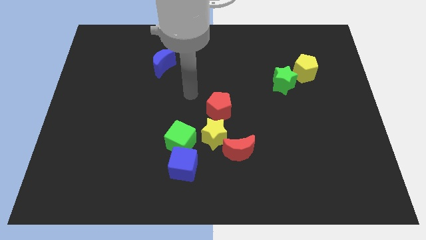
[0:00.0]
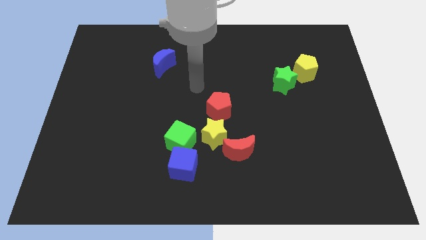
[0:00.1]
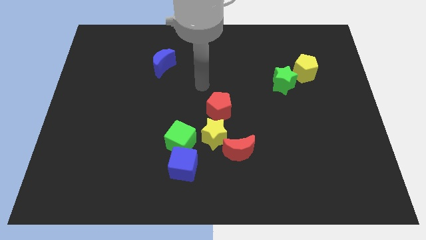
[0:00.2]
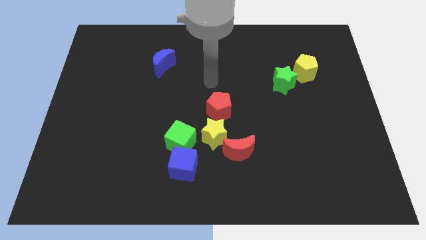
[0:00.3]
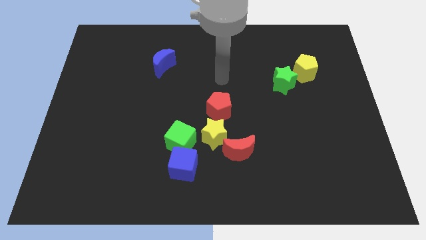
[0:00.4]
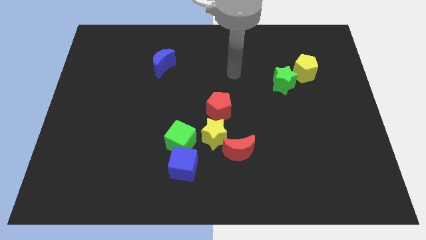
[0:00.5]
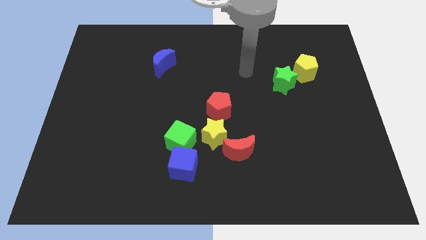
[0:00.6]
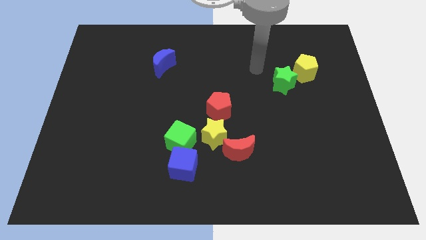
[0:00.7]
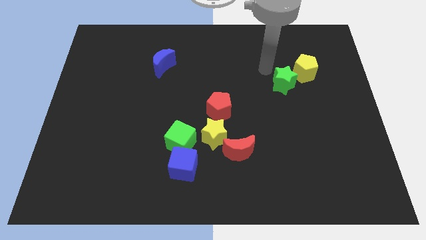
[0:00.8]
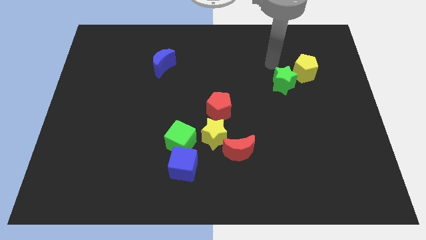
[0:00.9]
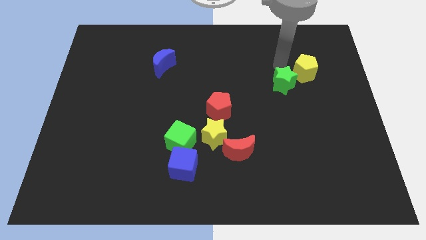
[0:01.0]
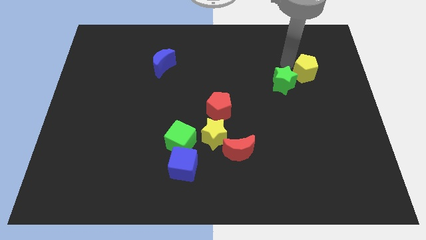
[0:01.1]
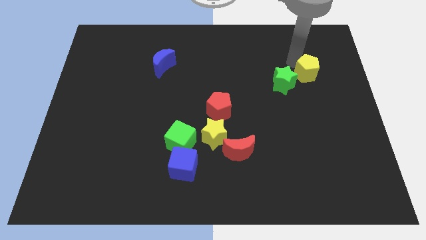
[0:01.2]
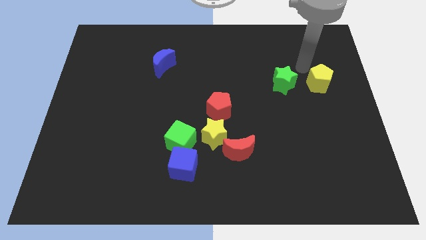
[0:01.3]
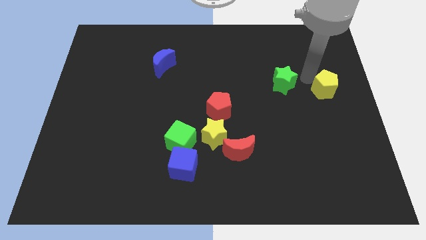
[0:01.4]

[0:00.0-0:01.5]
move the green star away from the yellow pentagon

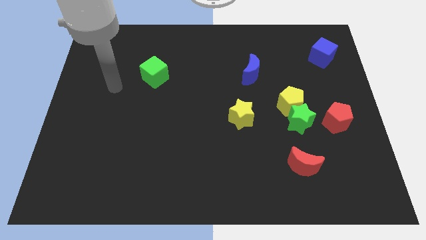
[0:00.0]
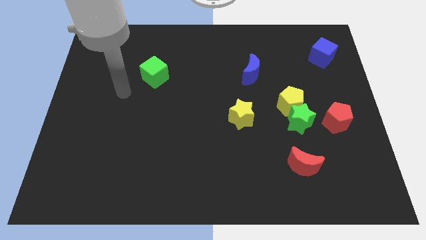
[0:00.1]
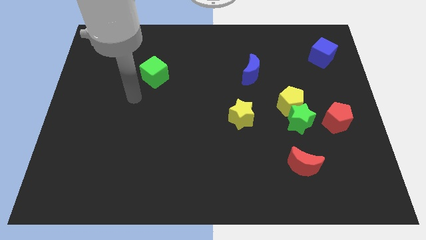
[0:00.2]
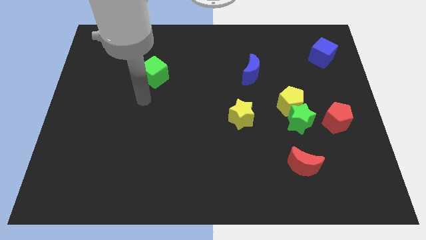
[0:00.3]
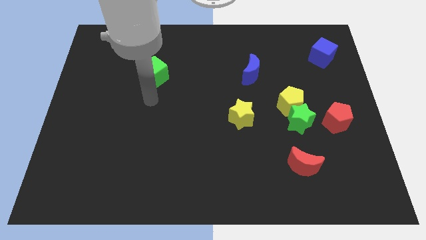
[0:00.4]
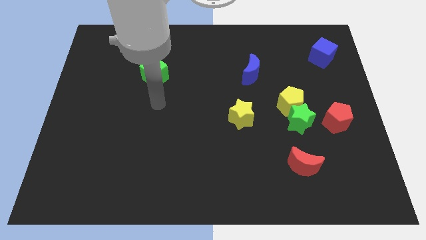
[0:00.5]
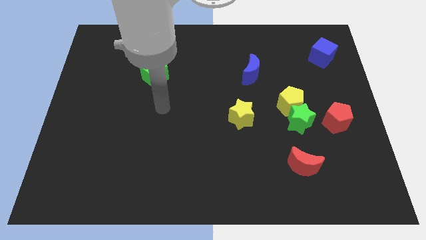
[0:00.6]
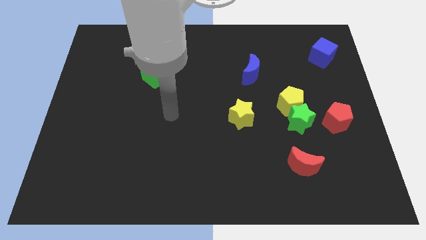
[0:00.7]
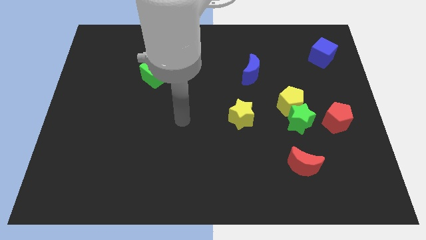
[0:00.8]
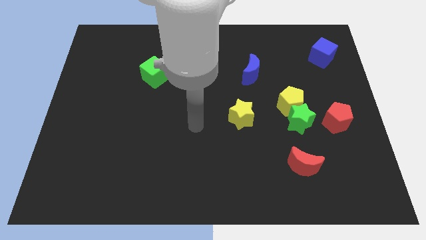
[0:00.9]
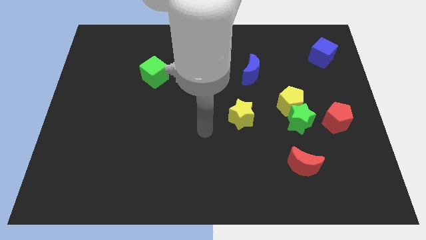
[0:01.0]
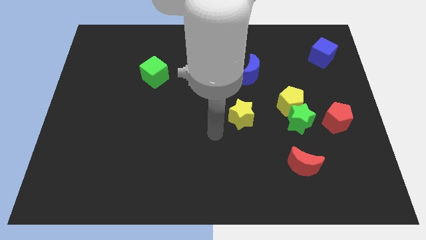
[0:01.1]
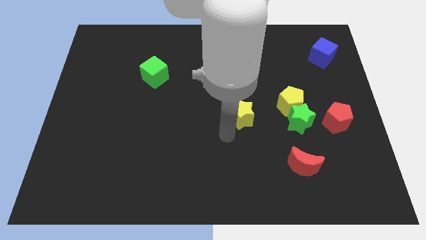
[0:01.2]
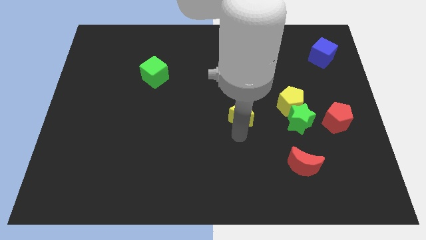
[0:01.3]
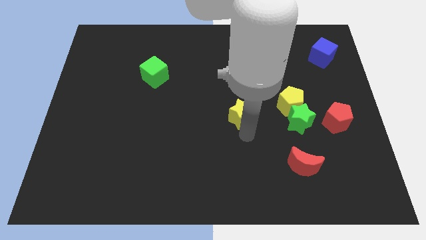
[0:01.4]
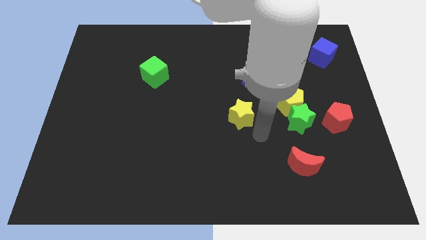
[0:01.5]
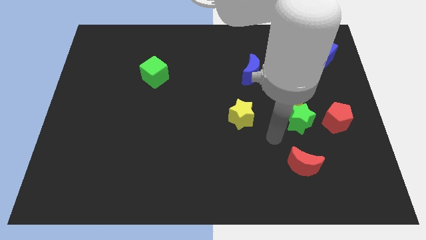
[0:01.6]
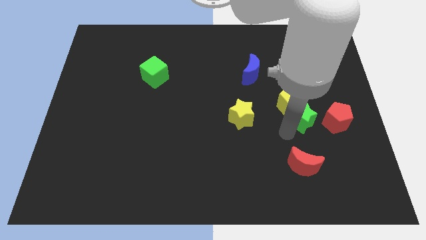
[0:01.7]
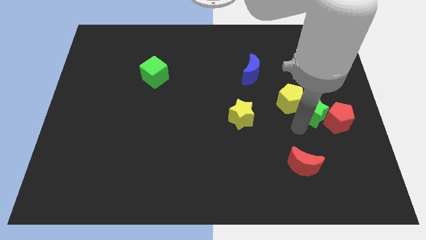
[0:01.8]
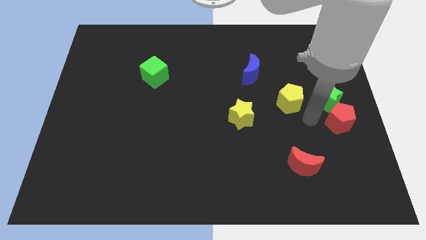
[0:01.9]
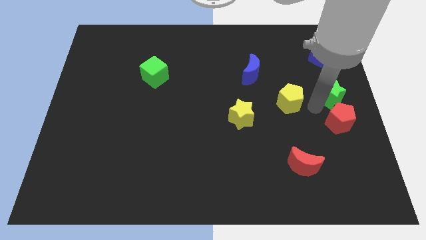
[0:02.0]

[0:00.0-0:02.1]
separate the yellow pentagon from the green star

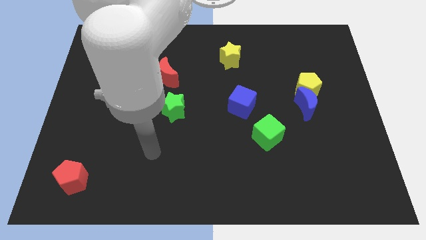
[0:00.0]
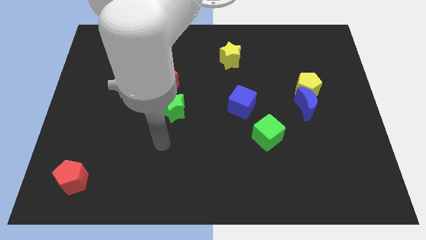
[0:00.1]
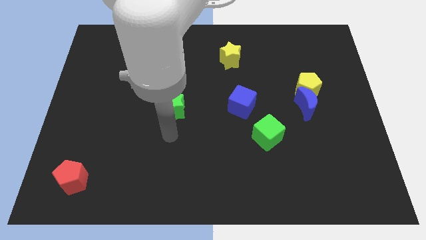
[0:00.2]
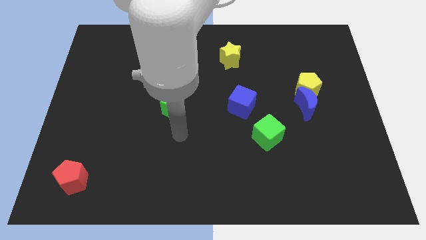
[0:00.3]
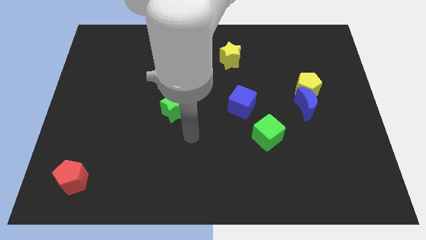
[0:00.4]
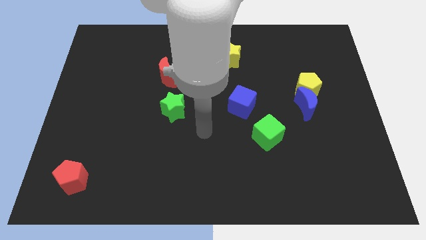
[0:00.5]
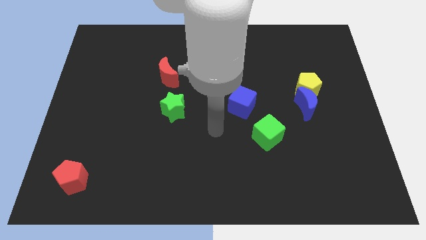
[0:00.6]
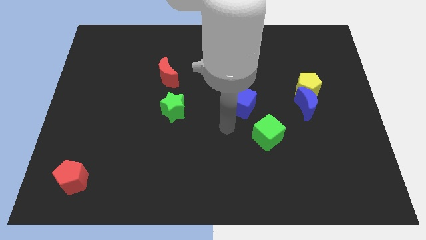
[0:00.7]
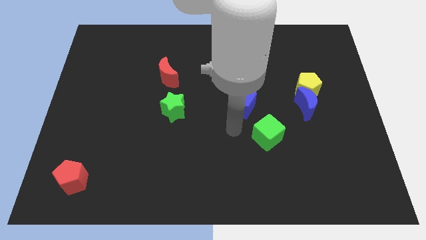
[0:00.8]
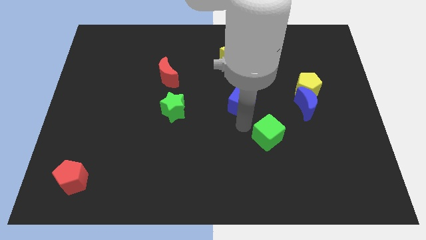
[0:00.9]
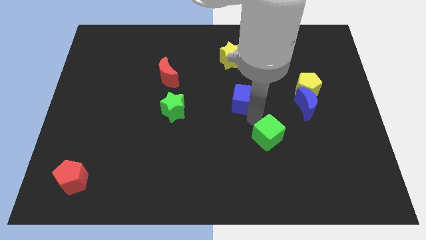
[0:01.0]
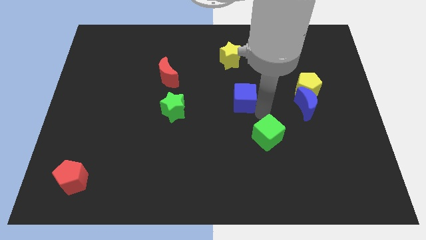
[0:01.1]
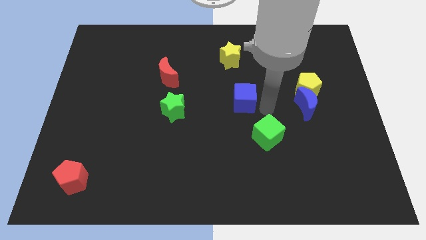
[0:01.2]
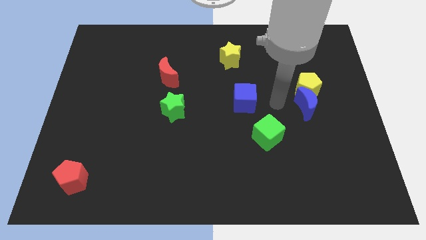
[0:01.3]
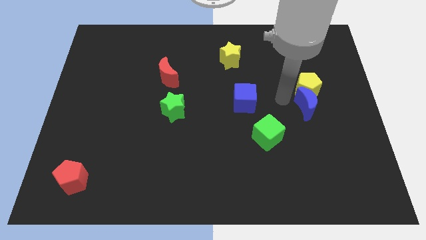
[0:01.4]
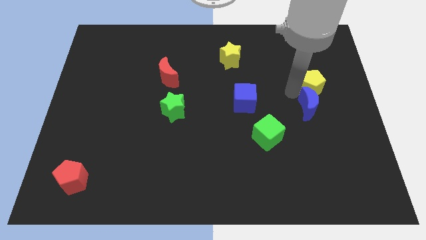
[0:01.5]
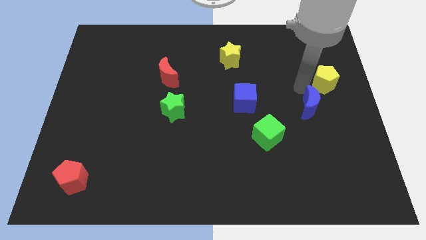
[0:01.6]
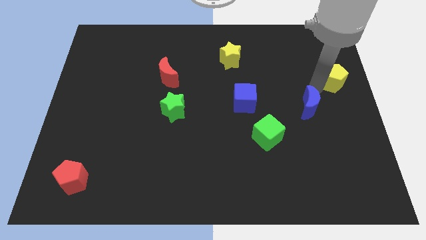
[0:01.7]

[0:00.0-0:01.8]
move the blue moon away from the yellow pentagon

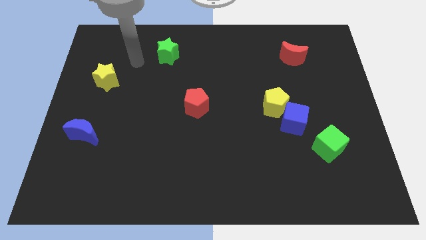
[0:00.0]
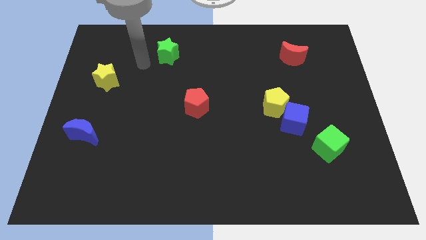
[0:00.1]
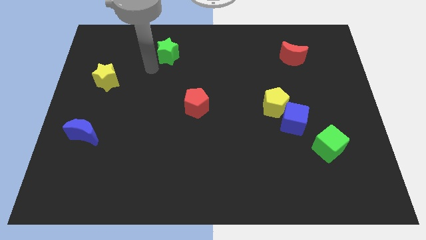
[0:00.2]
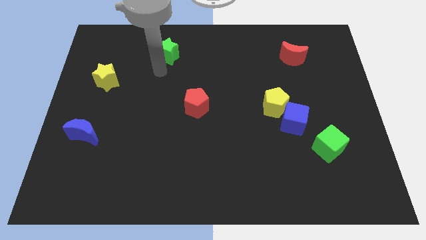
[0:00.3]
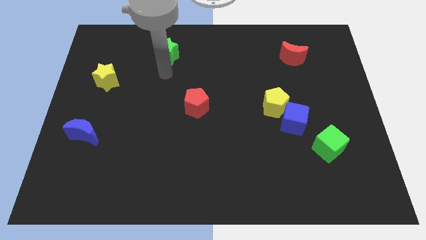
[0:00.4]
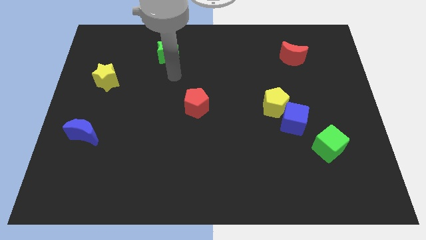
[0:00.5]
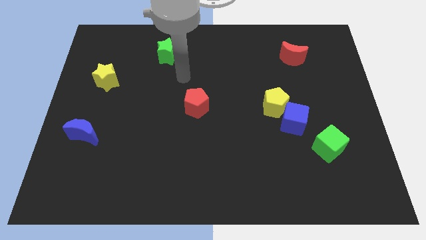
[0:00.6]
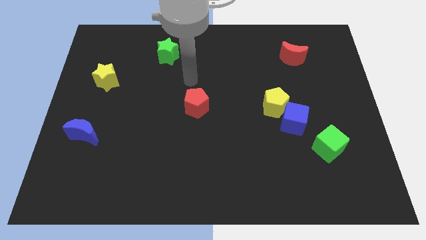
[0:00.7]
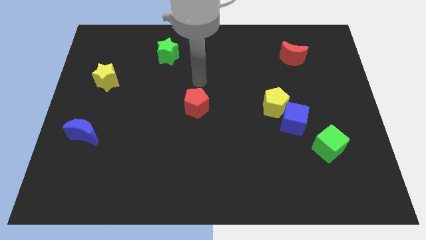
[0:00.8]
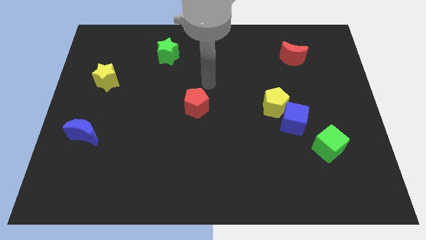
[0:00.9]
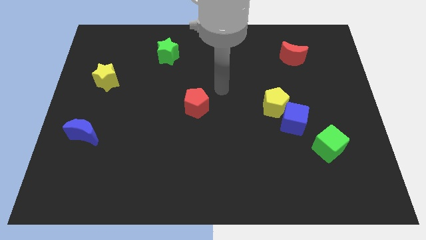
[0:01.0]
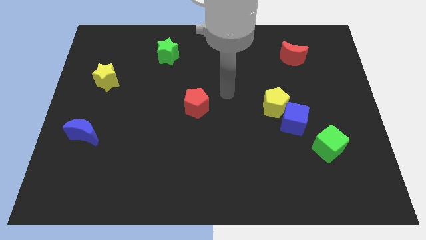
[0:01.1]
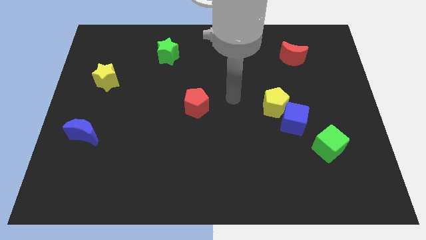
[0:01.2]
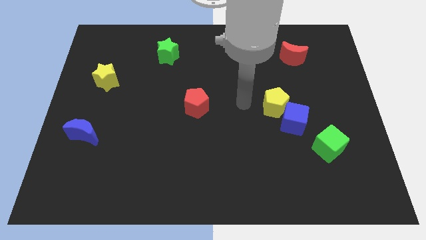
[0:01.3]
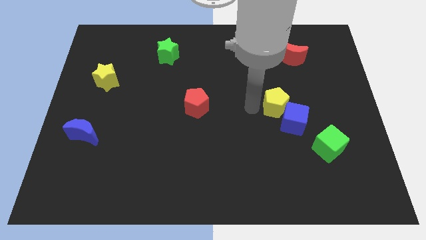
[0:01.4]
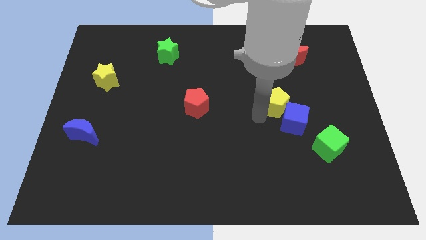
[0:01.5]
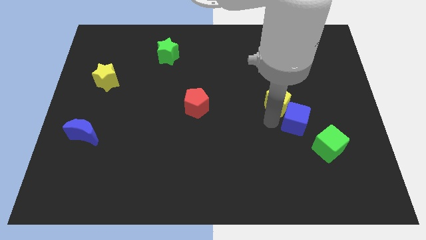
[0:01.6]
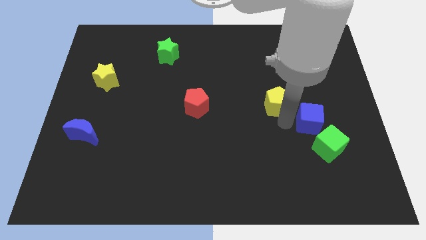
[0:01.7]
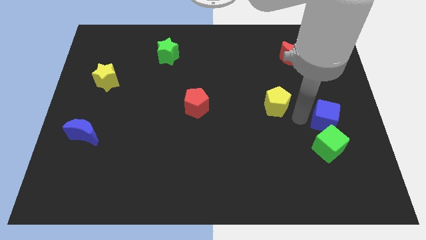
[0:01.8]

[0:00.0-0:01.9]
move the yellow pentagon away from the blue cube

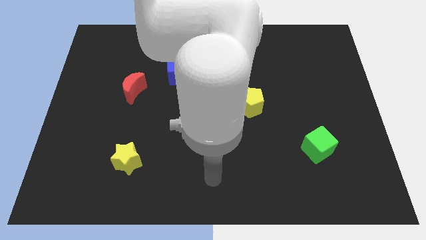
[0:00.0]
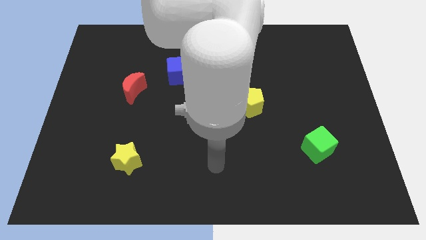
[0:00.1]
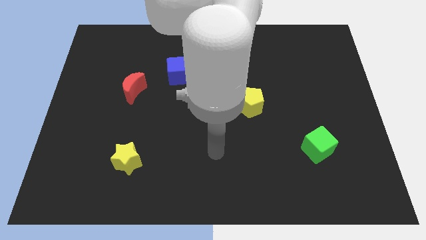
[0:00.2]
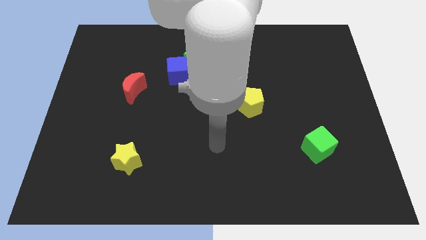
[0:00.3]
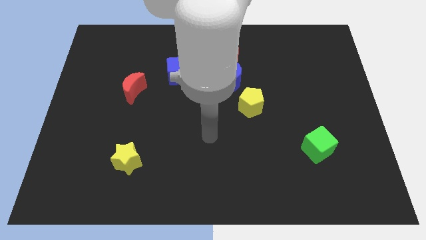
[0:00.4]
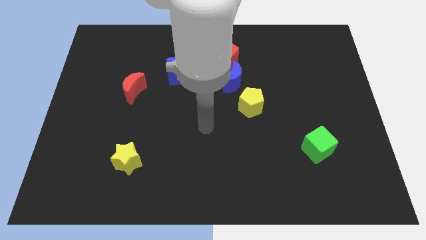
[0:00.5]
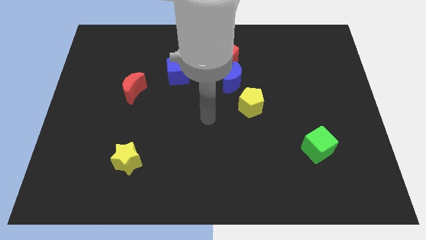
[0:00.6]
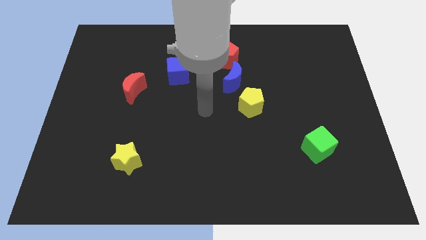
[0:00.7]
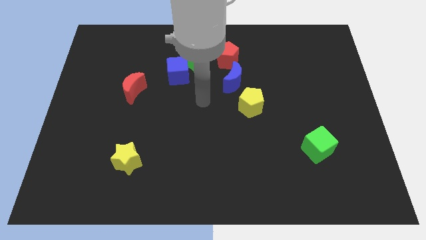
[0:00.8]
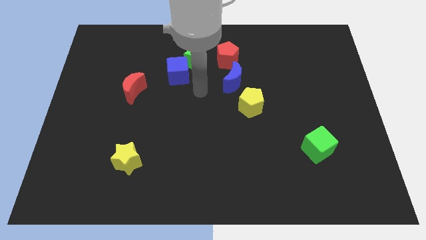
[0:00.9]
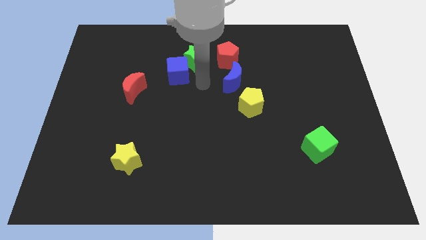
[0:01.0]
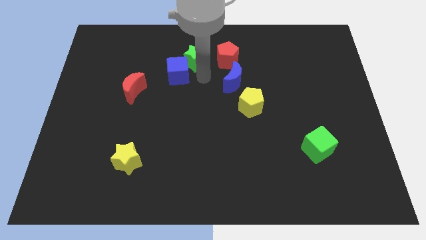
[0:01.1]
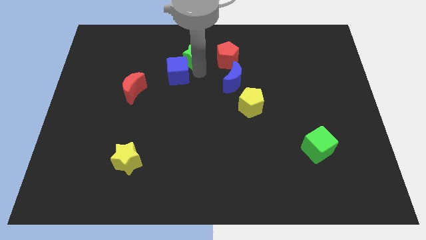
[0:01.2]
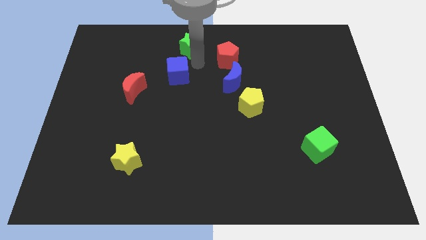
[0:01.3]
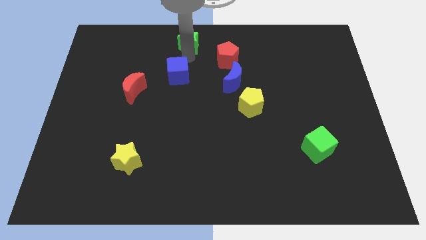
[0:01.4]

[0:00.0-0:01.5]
move the blue cube away from the green star

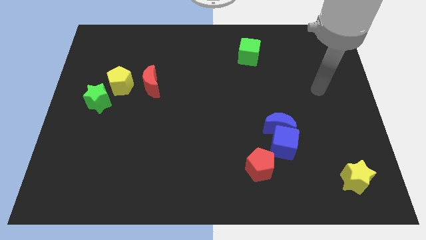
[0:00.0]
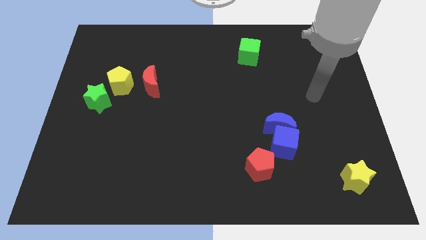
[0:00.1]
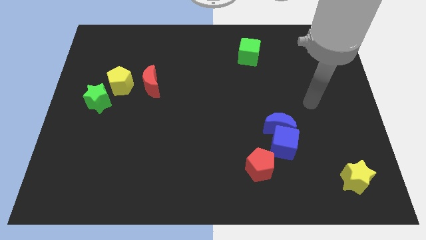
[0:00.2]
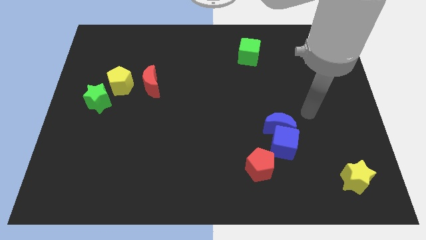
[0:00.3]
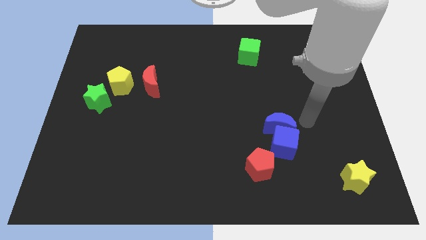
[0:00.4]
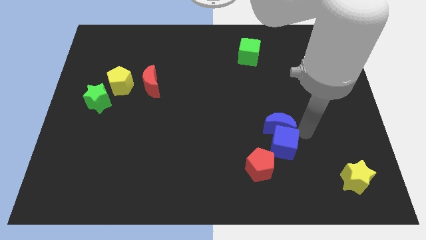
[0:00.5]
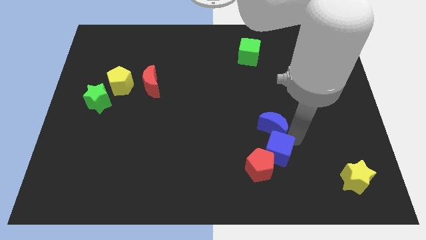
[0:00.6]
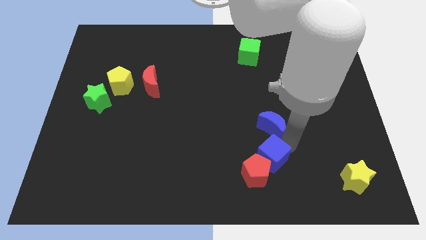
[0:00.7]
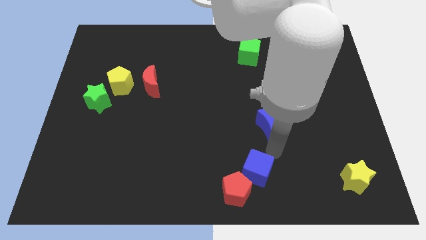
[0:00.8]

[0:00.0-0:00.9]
move the blue moon away from the blue cube
